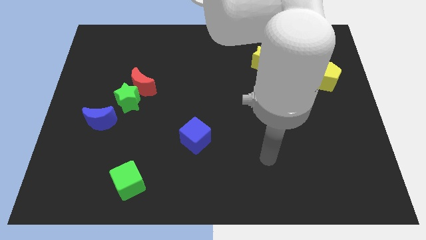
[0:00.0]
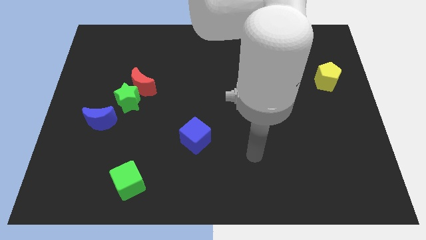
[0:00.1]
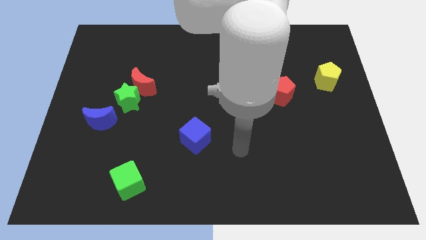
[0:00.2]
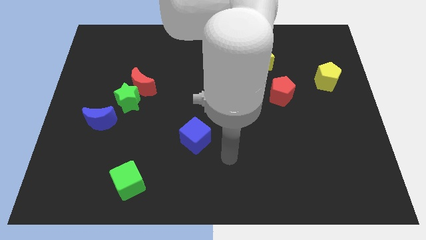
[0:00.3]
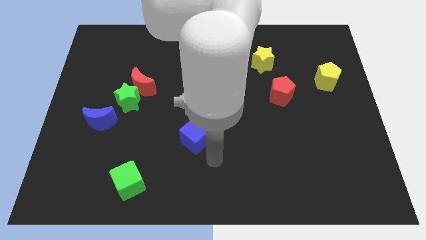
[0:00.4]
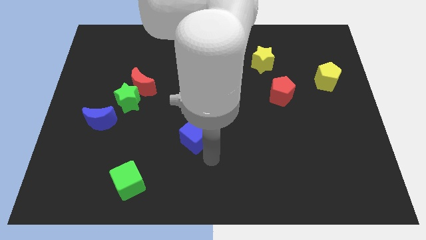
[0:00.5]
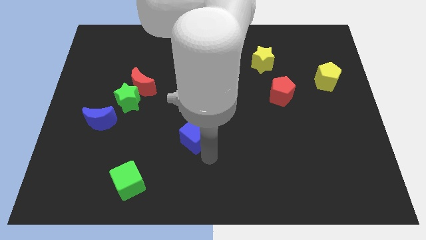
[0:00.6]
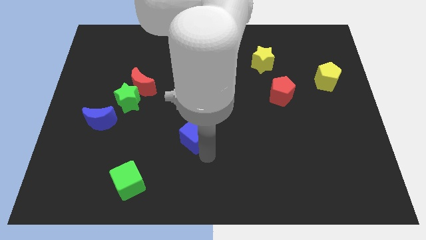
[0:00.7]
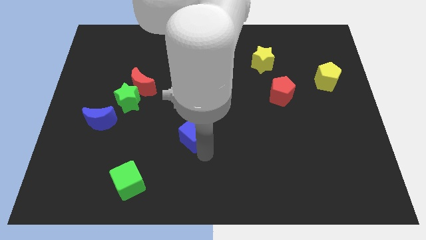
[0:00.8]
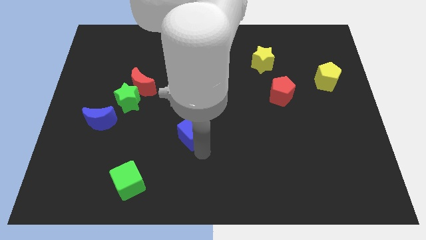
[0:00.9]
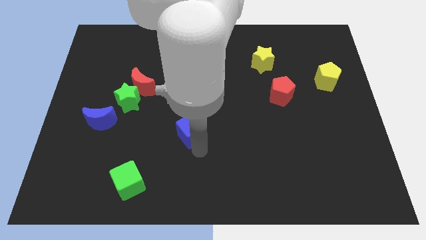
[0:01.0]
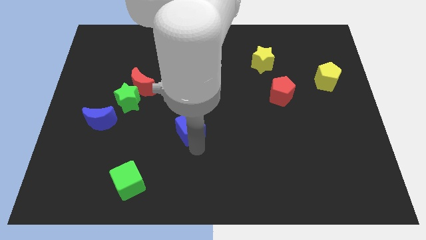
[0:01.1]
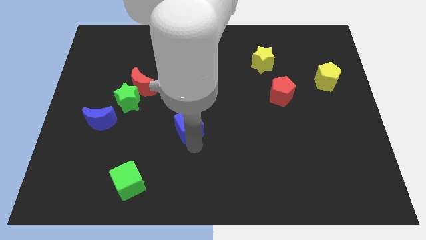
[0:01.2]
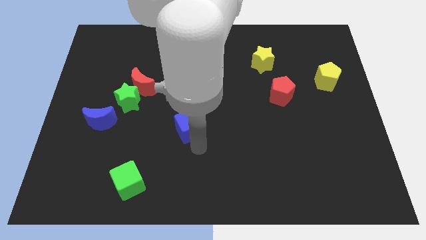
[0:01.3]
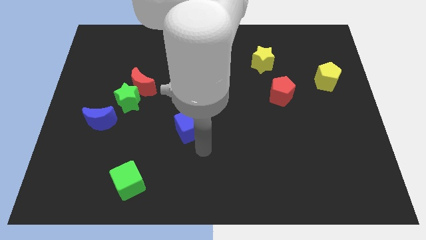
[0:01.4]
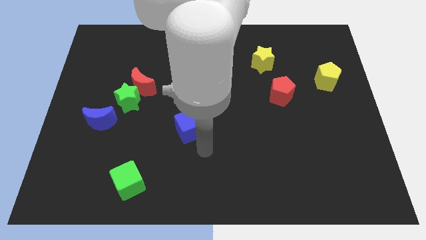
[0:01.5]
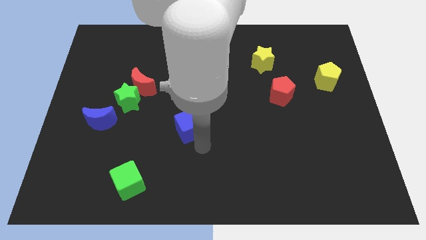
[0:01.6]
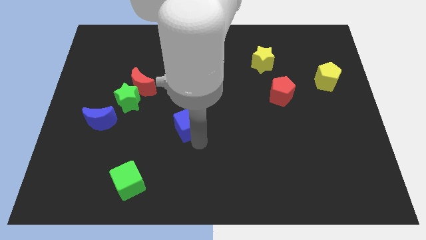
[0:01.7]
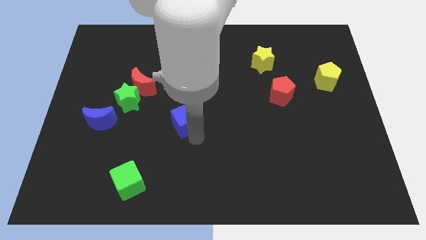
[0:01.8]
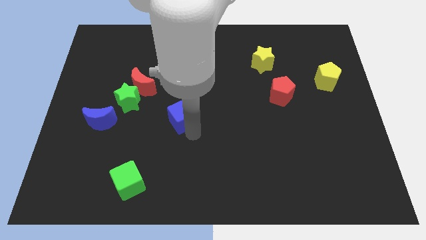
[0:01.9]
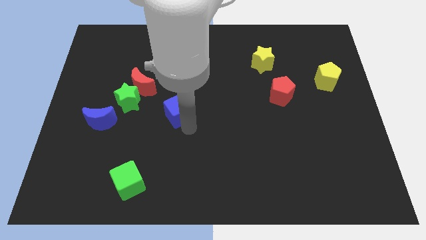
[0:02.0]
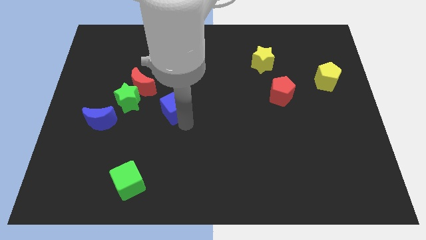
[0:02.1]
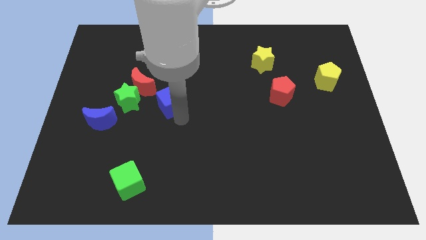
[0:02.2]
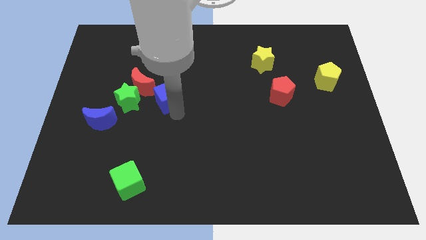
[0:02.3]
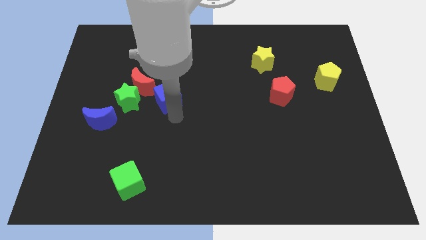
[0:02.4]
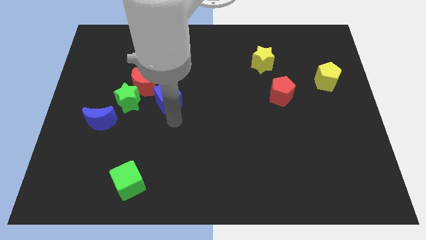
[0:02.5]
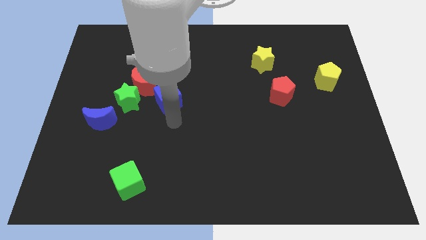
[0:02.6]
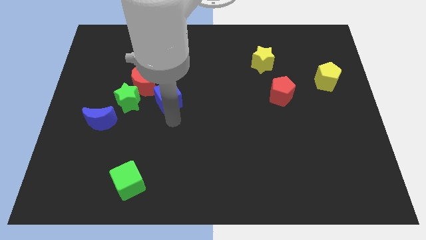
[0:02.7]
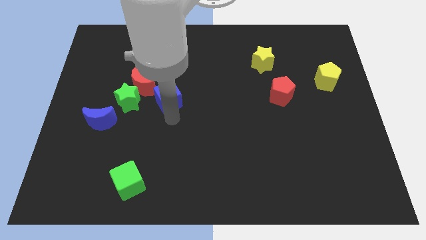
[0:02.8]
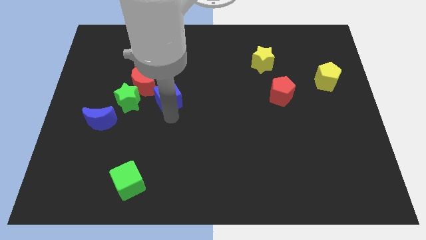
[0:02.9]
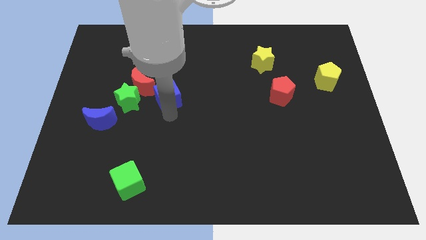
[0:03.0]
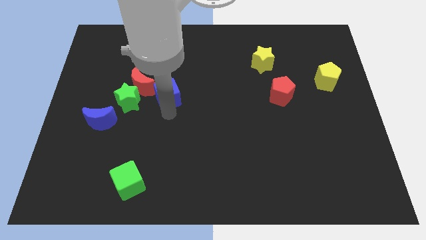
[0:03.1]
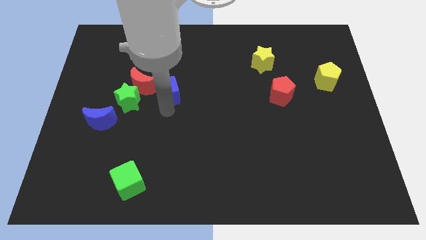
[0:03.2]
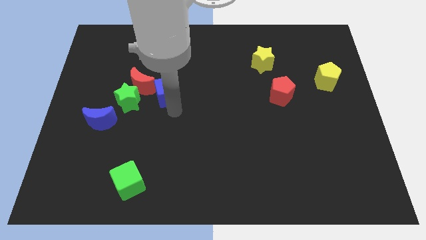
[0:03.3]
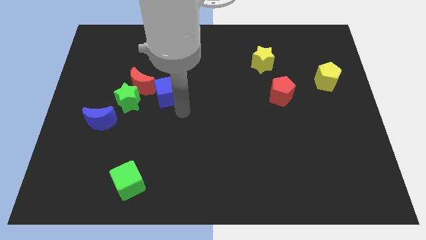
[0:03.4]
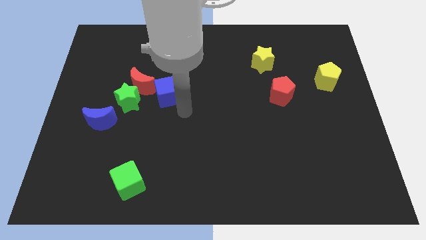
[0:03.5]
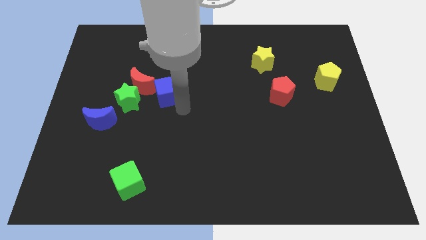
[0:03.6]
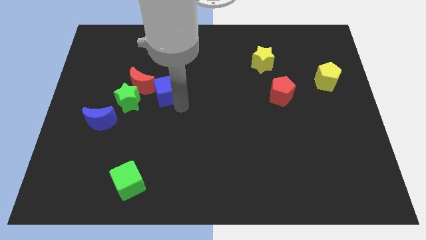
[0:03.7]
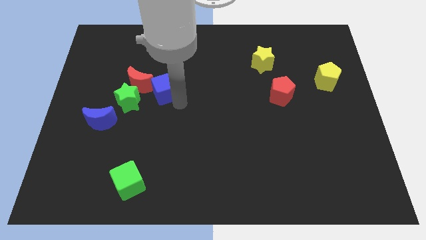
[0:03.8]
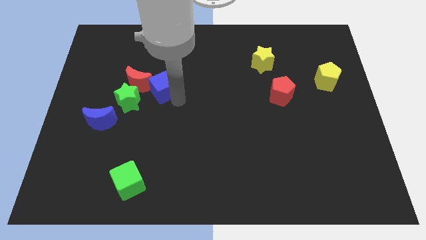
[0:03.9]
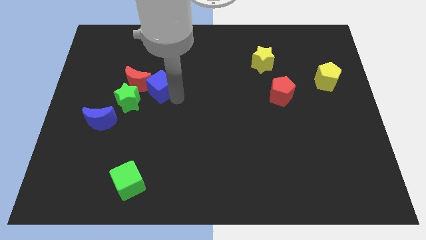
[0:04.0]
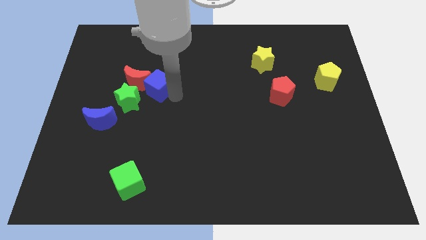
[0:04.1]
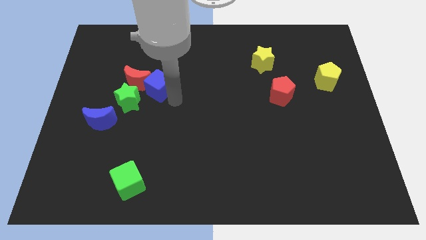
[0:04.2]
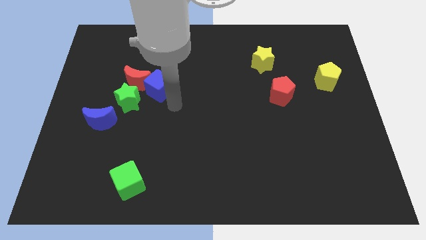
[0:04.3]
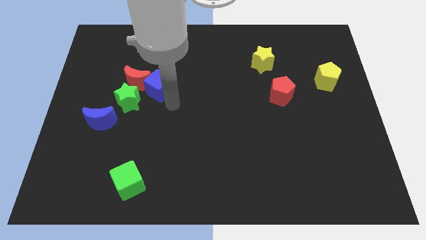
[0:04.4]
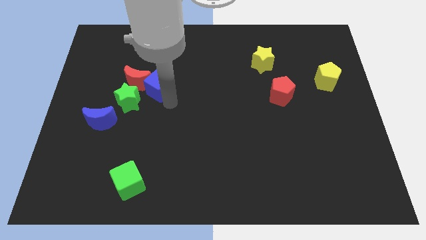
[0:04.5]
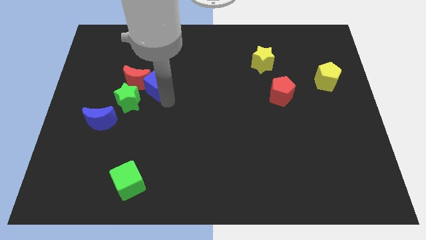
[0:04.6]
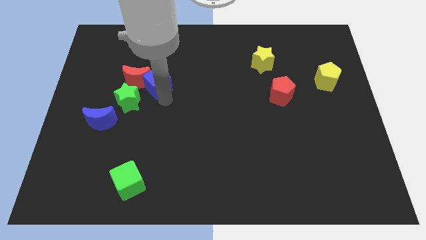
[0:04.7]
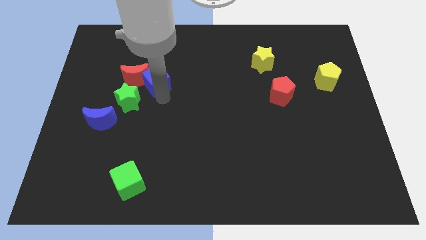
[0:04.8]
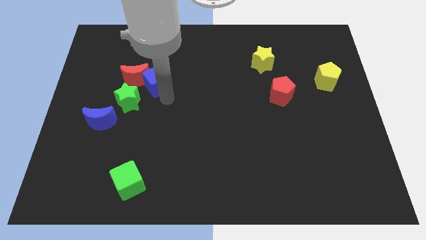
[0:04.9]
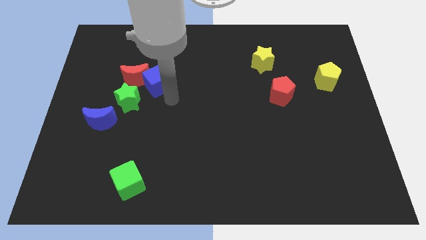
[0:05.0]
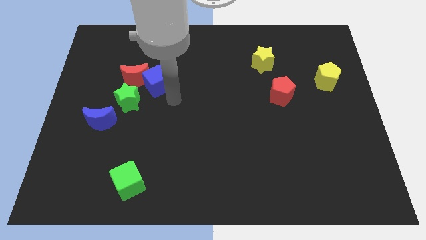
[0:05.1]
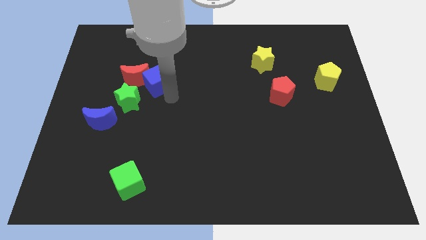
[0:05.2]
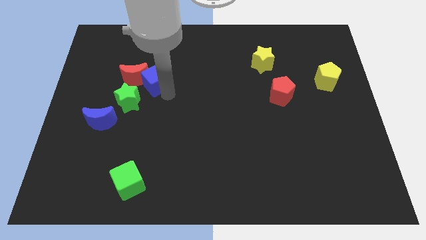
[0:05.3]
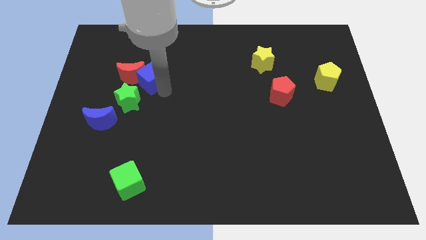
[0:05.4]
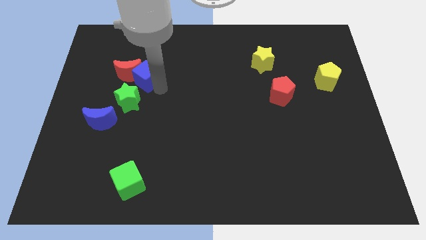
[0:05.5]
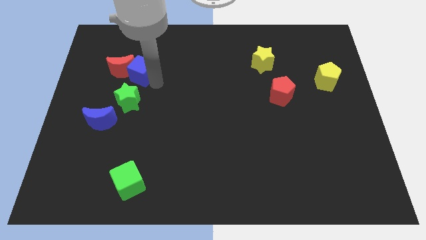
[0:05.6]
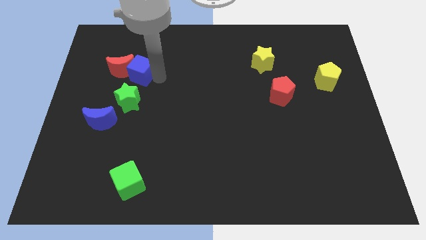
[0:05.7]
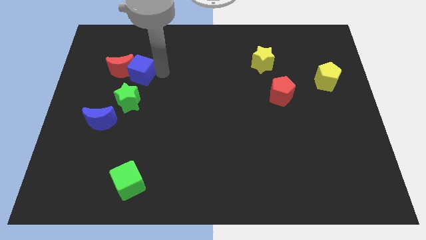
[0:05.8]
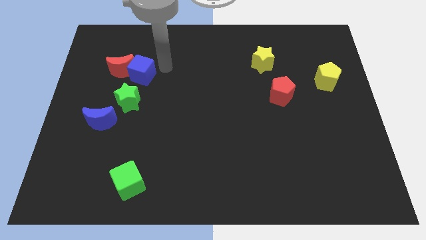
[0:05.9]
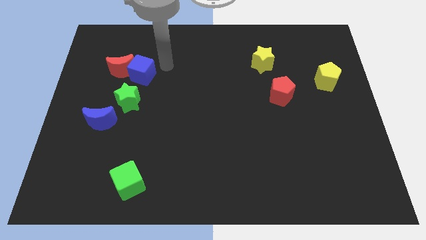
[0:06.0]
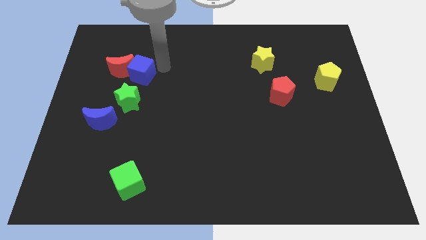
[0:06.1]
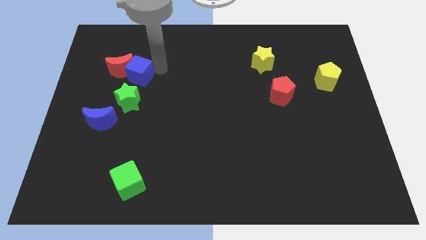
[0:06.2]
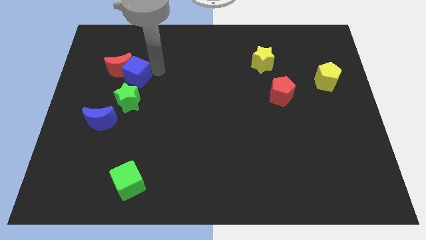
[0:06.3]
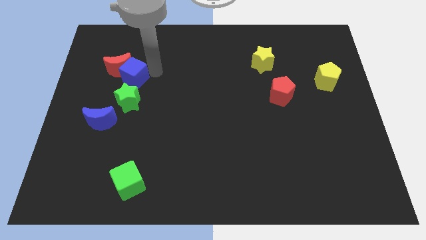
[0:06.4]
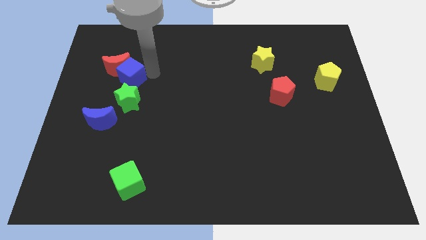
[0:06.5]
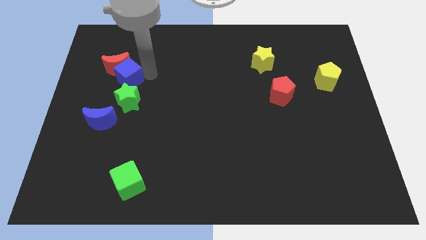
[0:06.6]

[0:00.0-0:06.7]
put the blue cube to the top left of the green star

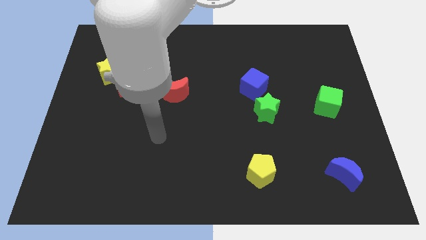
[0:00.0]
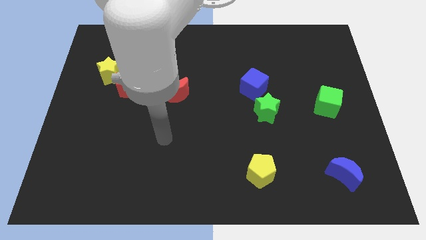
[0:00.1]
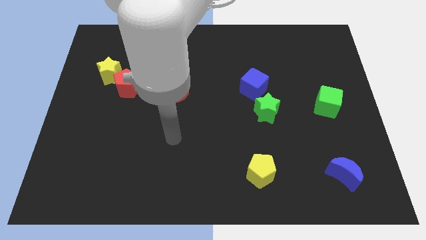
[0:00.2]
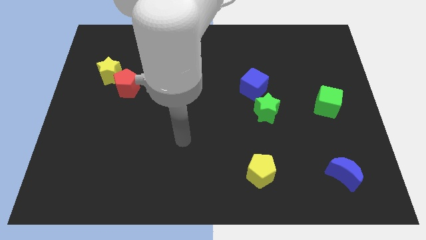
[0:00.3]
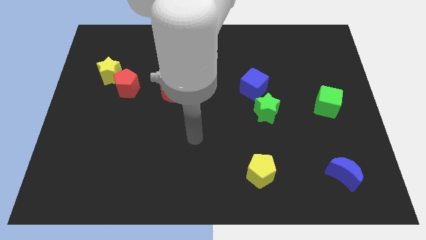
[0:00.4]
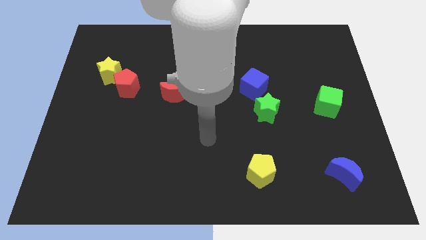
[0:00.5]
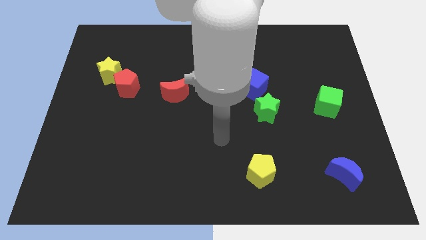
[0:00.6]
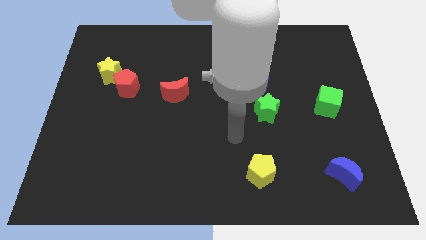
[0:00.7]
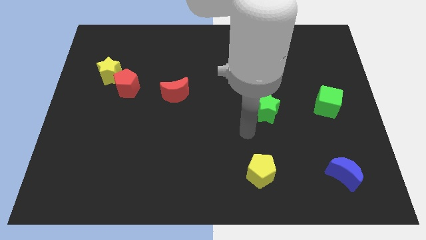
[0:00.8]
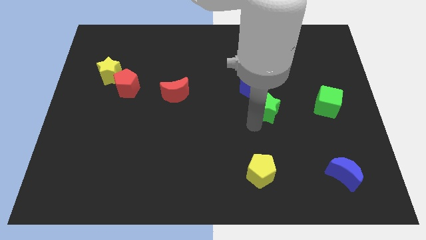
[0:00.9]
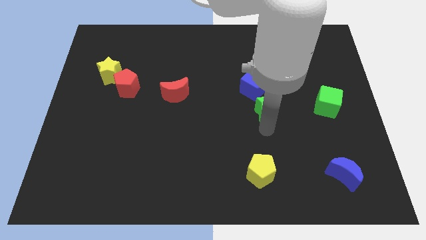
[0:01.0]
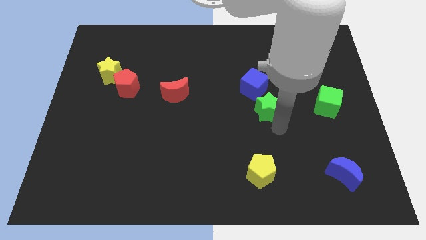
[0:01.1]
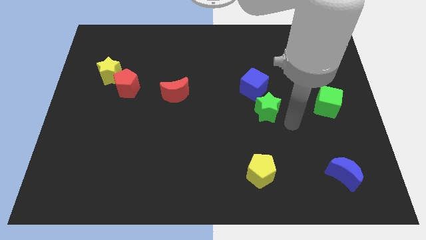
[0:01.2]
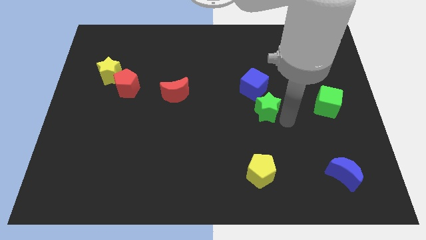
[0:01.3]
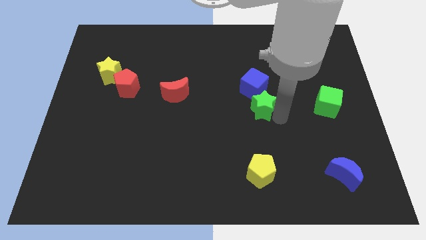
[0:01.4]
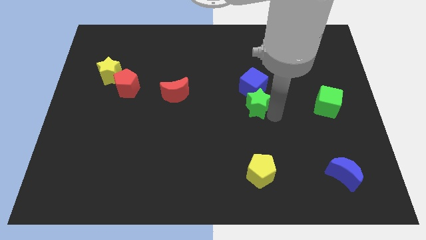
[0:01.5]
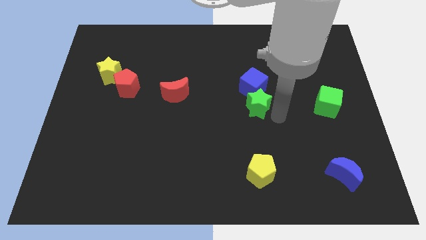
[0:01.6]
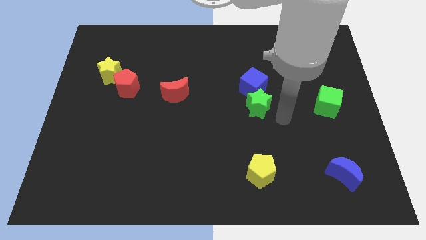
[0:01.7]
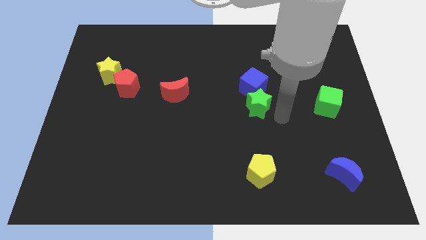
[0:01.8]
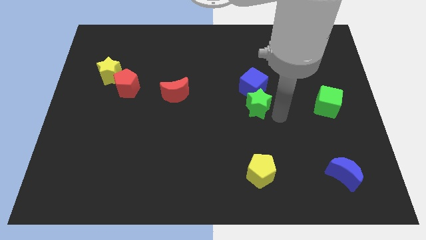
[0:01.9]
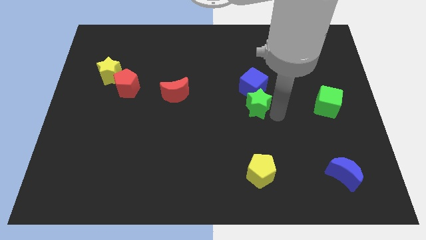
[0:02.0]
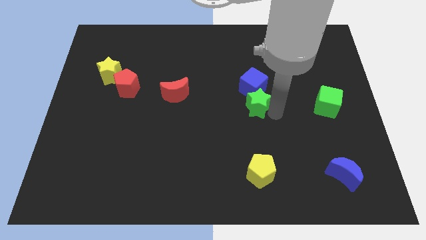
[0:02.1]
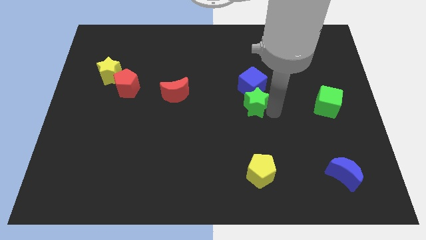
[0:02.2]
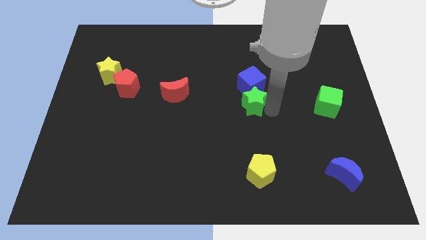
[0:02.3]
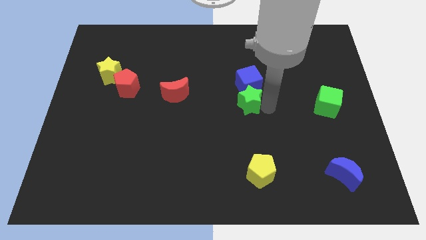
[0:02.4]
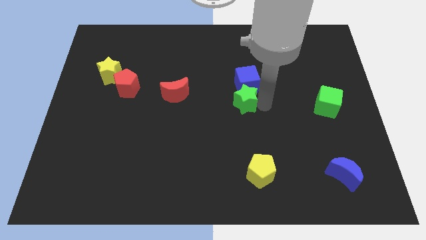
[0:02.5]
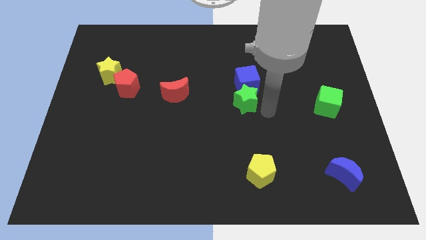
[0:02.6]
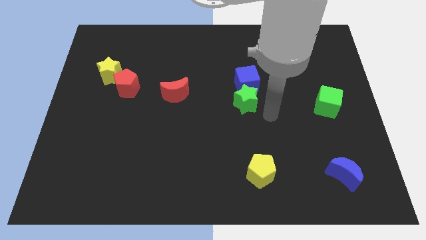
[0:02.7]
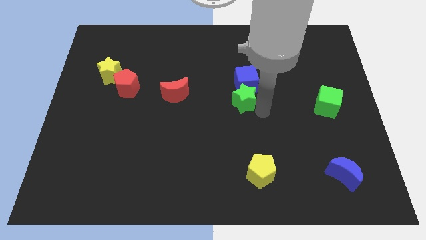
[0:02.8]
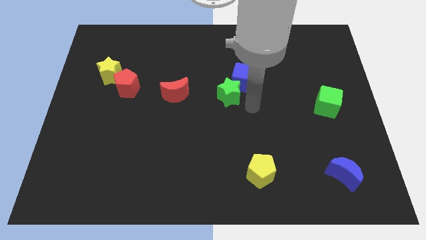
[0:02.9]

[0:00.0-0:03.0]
slide the green star left of the blue cube
